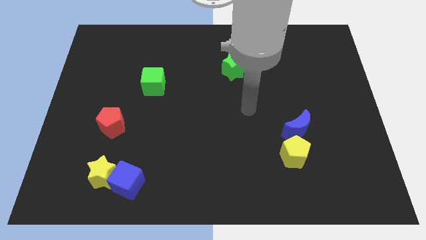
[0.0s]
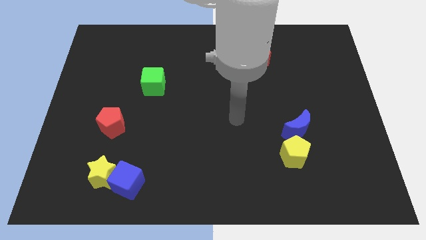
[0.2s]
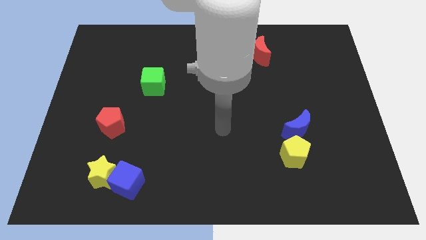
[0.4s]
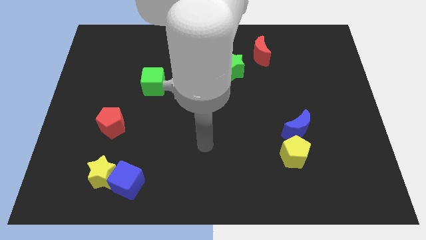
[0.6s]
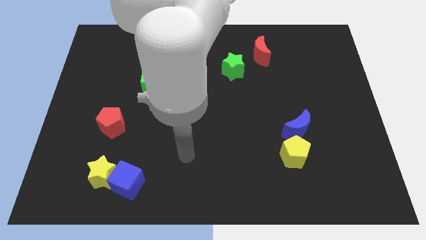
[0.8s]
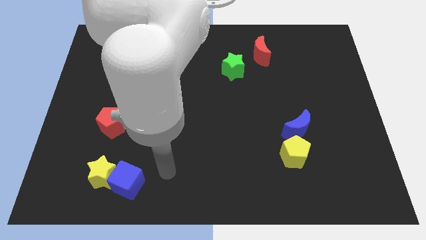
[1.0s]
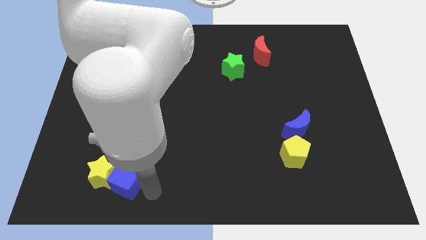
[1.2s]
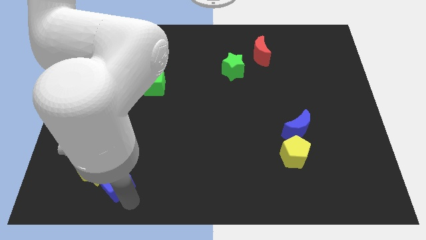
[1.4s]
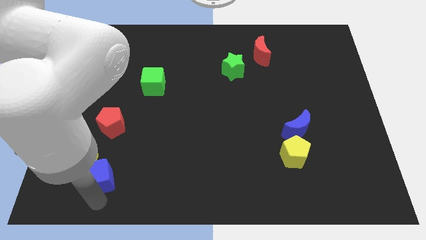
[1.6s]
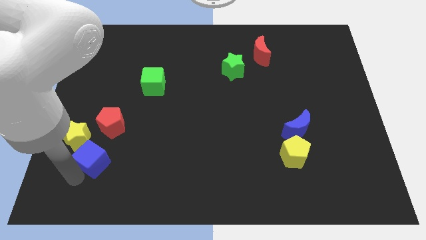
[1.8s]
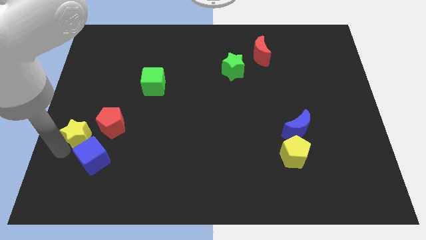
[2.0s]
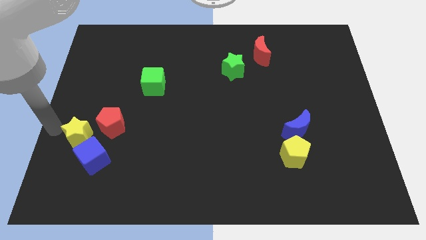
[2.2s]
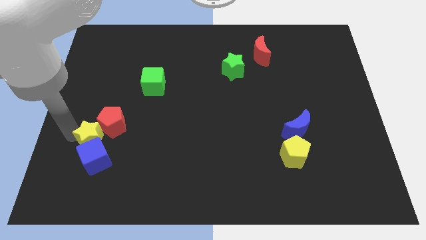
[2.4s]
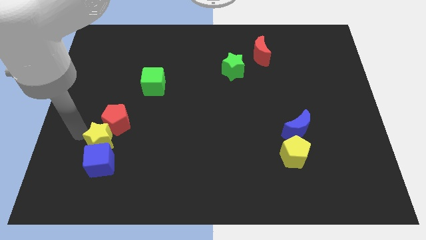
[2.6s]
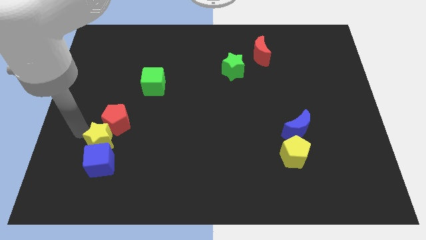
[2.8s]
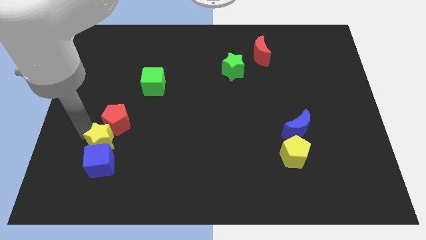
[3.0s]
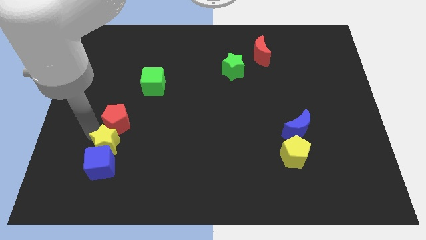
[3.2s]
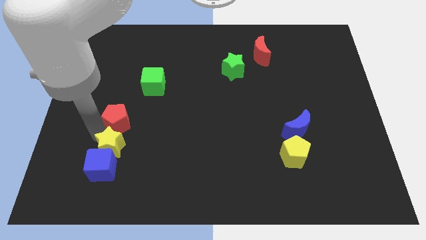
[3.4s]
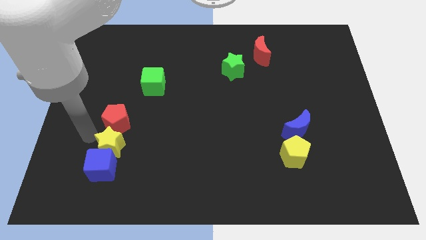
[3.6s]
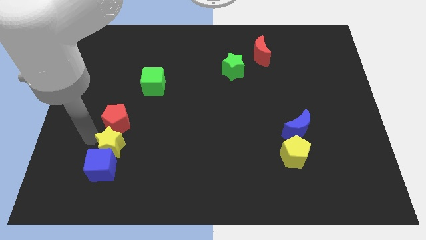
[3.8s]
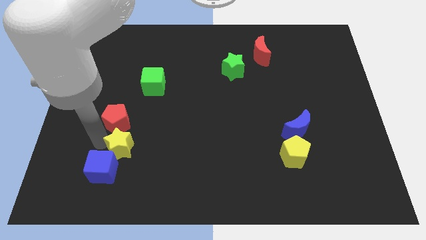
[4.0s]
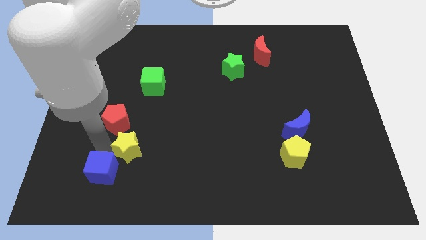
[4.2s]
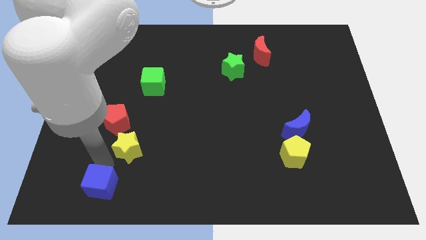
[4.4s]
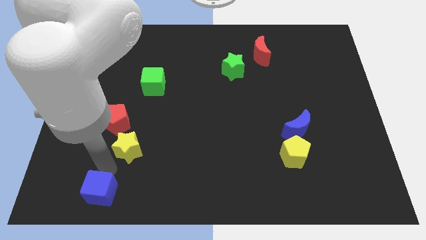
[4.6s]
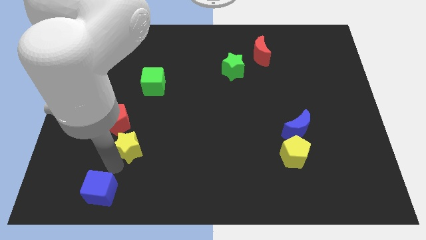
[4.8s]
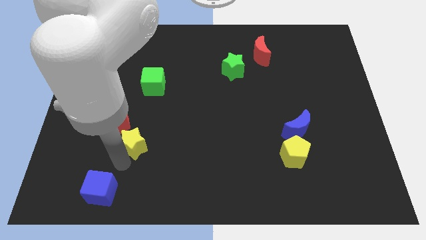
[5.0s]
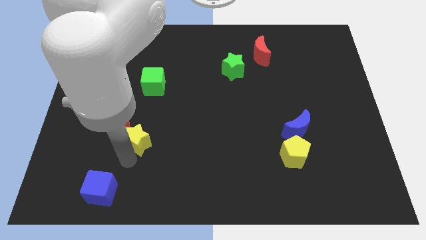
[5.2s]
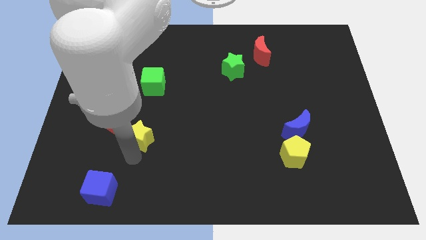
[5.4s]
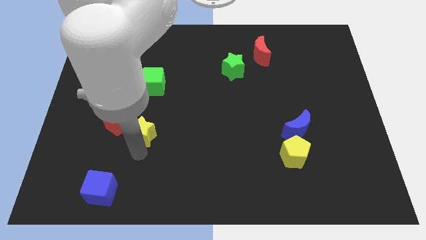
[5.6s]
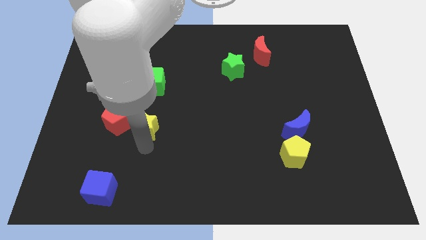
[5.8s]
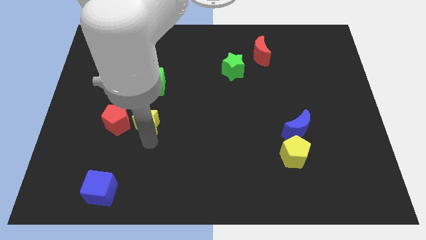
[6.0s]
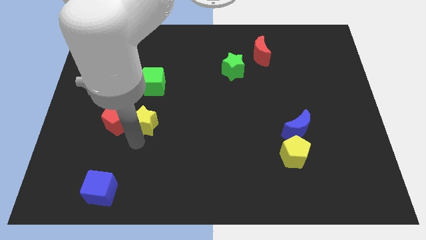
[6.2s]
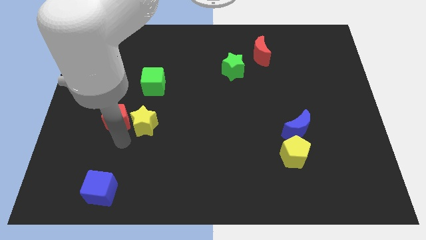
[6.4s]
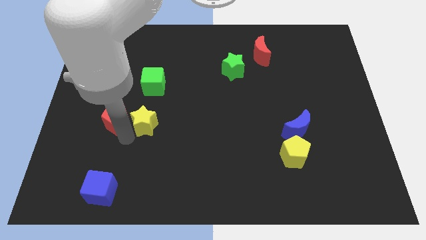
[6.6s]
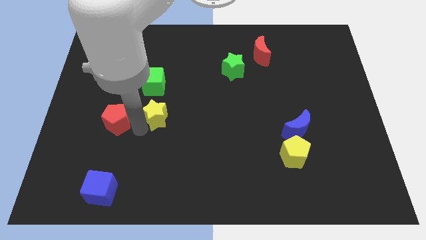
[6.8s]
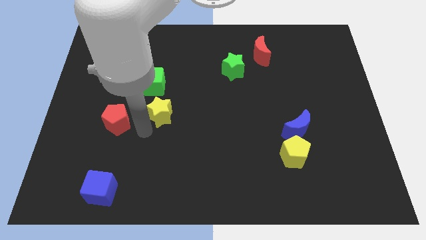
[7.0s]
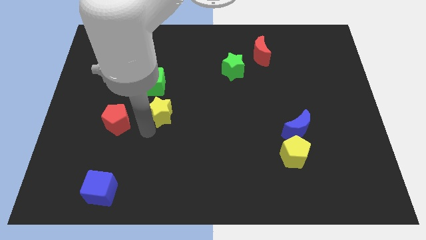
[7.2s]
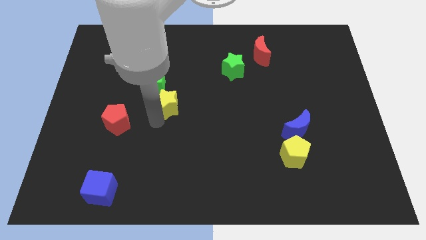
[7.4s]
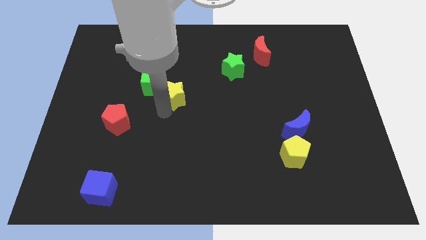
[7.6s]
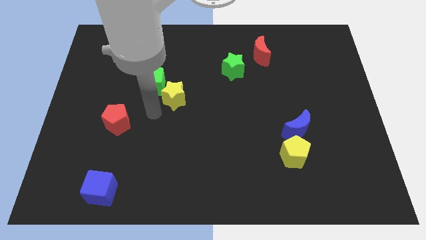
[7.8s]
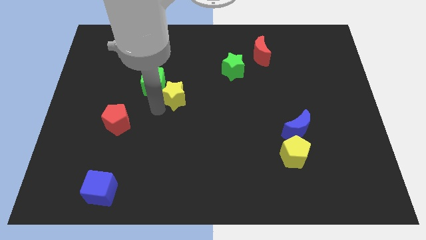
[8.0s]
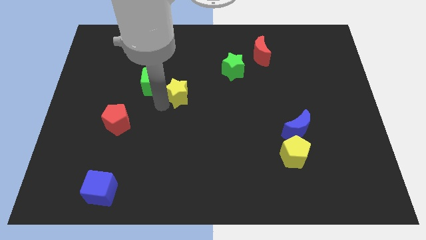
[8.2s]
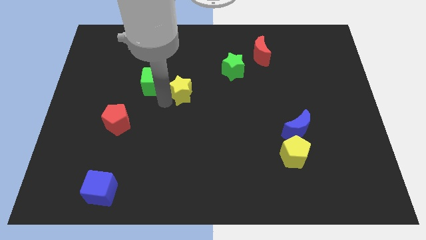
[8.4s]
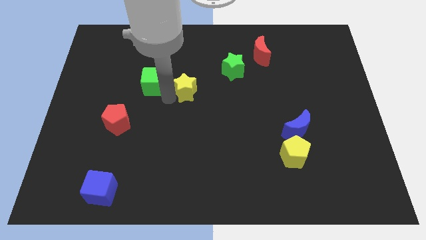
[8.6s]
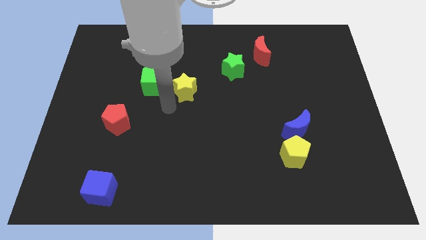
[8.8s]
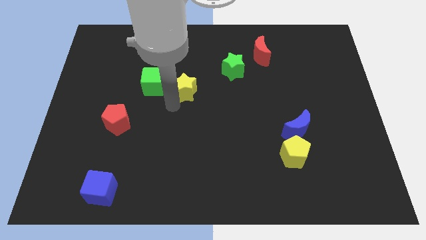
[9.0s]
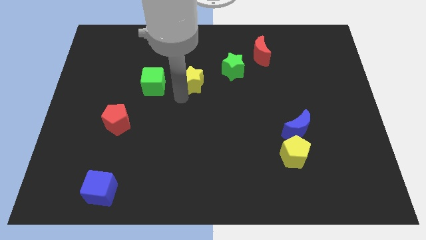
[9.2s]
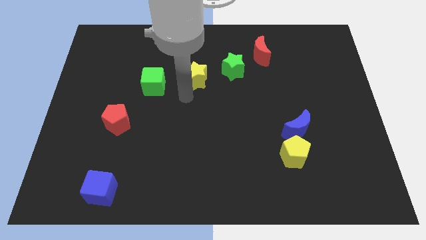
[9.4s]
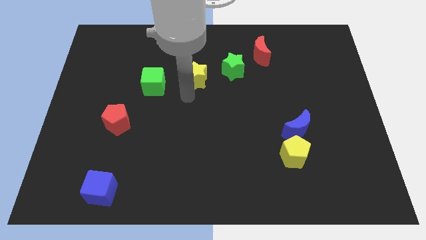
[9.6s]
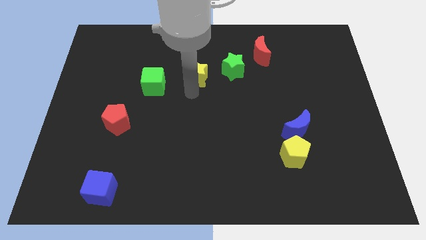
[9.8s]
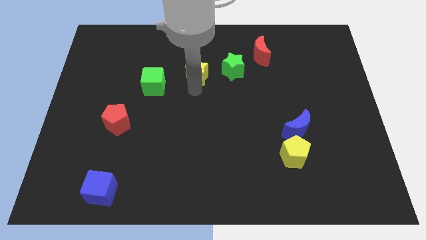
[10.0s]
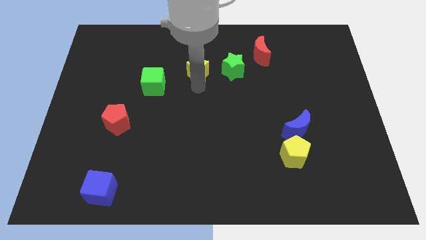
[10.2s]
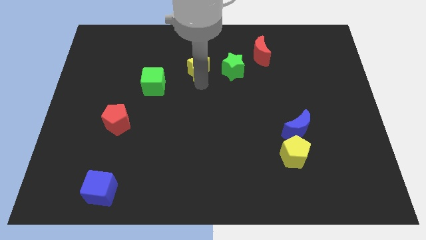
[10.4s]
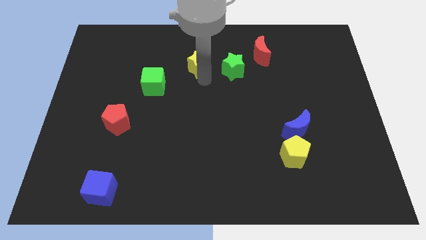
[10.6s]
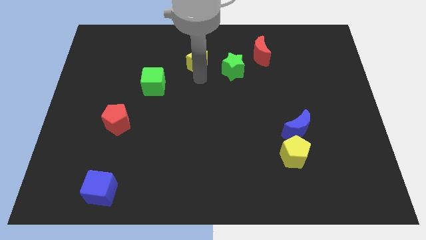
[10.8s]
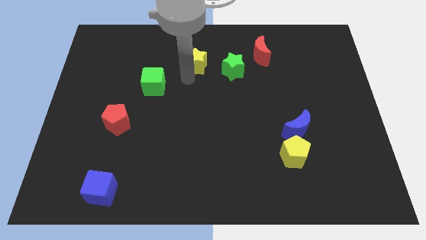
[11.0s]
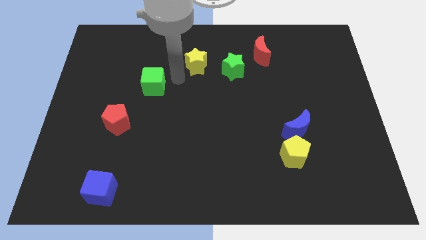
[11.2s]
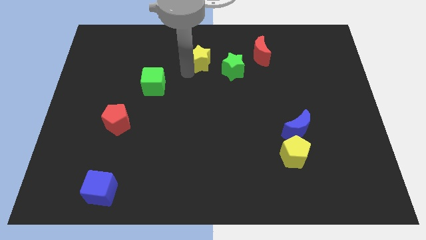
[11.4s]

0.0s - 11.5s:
move the yellow star diagonally up and to the left of the green star

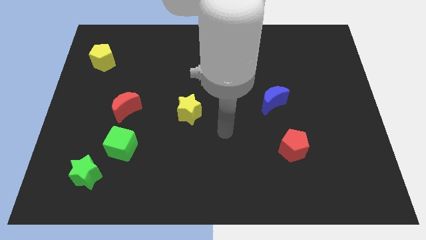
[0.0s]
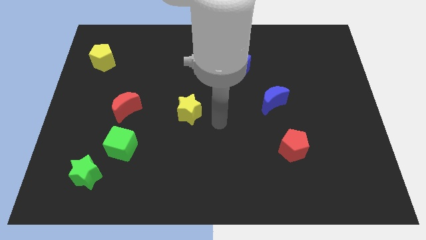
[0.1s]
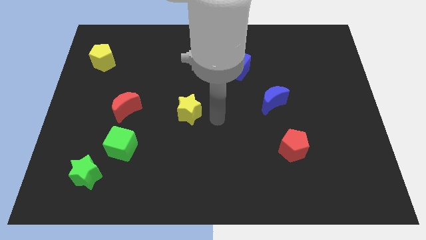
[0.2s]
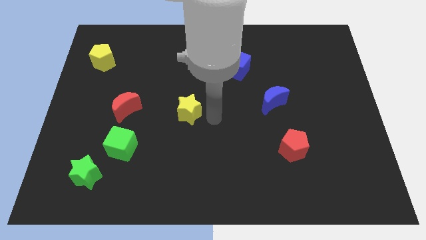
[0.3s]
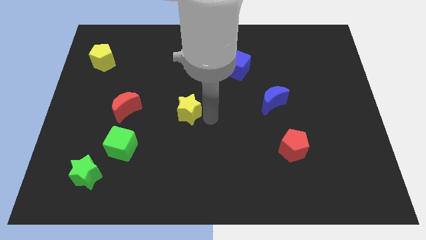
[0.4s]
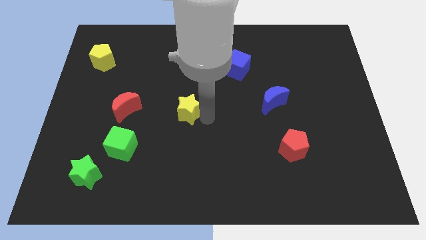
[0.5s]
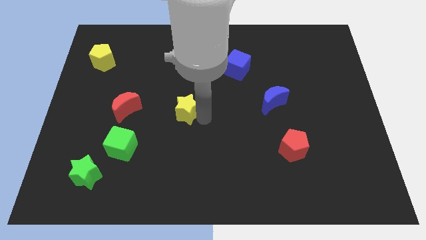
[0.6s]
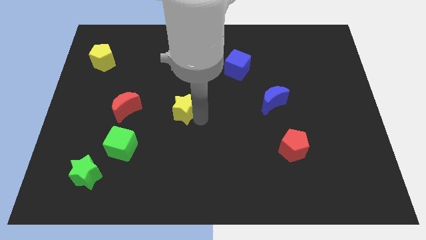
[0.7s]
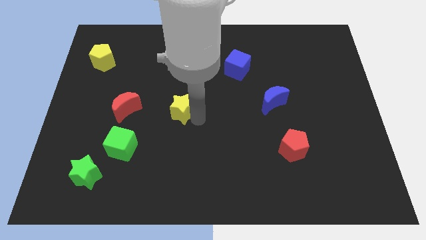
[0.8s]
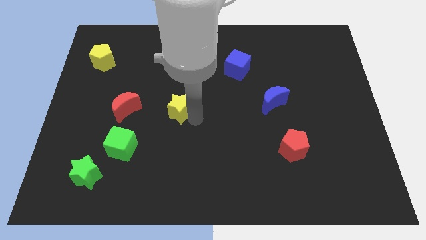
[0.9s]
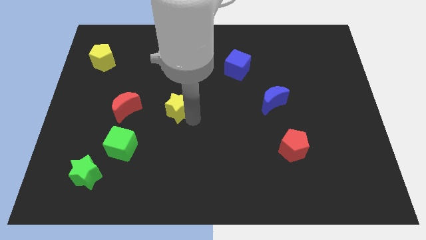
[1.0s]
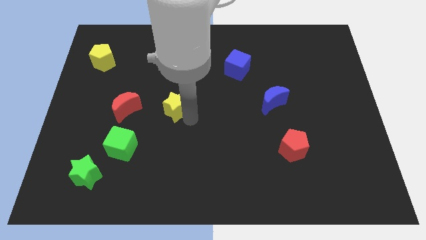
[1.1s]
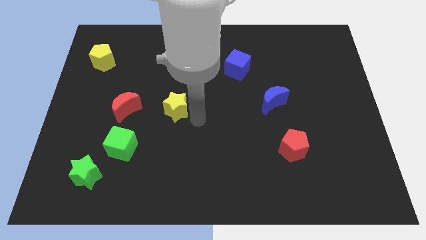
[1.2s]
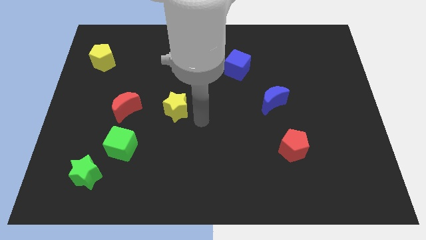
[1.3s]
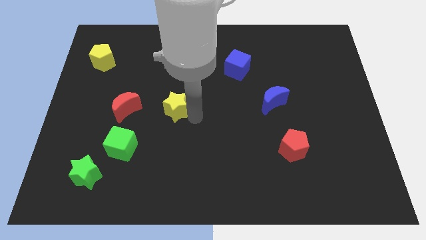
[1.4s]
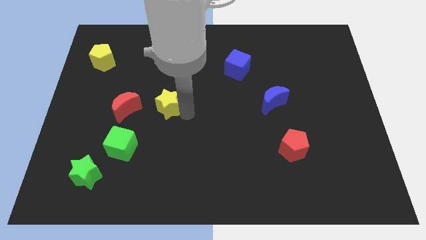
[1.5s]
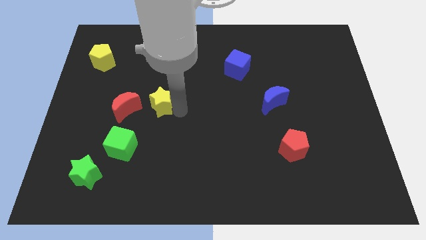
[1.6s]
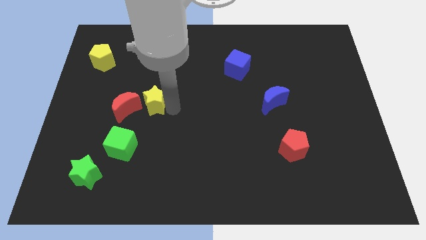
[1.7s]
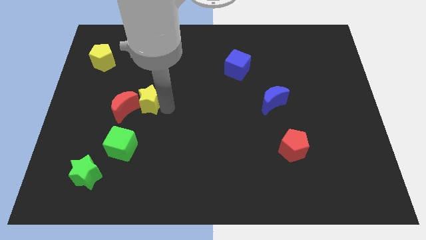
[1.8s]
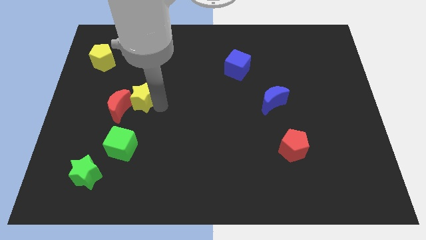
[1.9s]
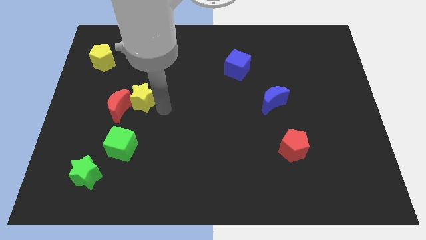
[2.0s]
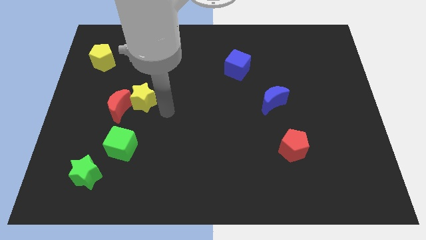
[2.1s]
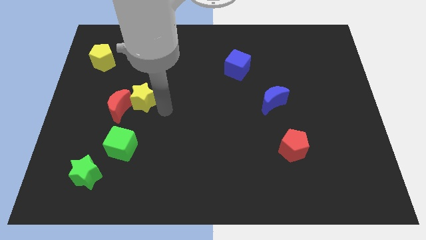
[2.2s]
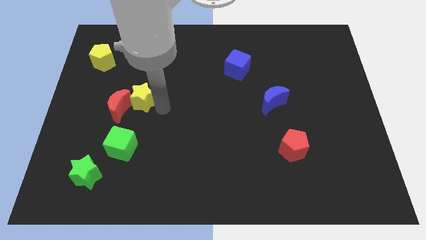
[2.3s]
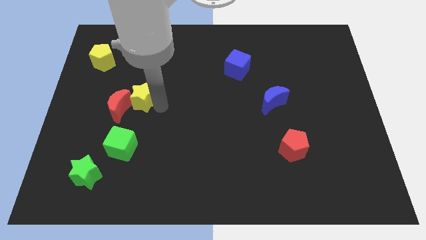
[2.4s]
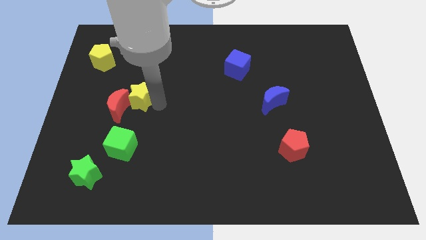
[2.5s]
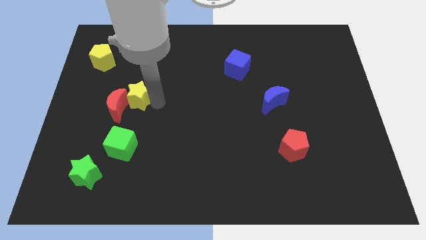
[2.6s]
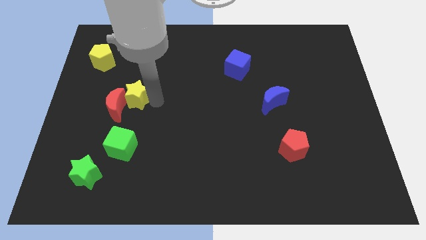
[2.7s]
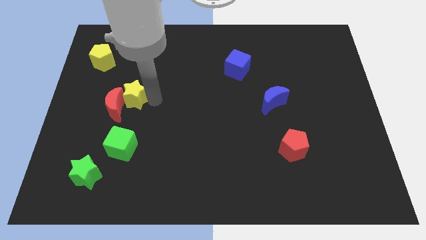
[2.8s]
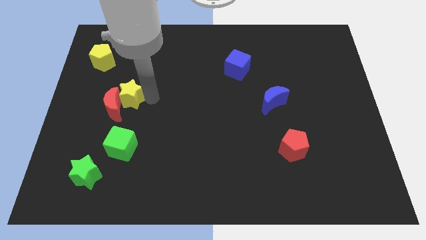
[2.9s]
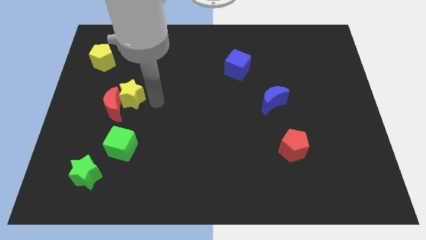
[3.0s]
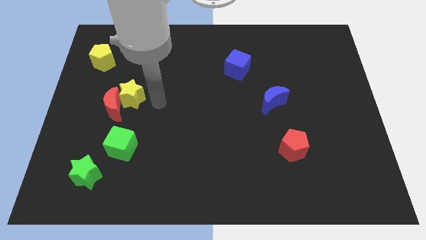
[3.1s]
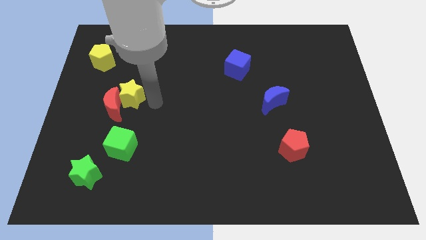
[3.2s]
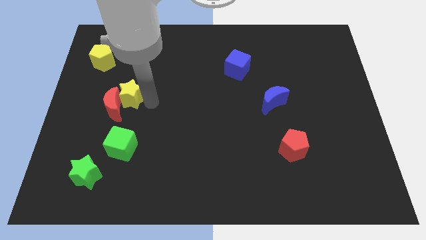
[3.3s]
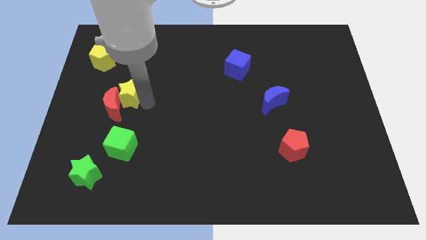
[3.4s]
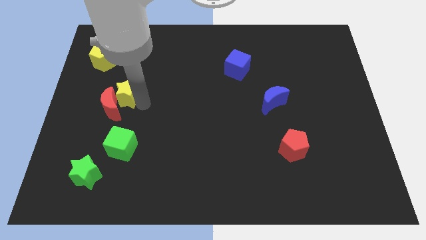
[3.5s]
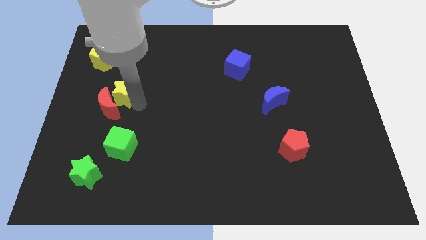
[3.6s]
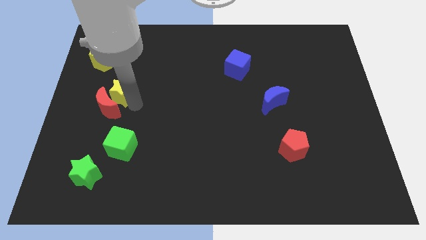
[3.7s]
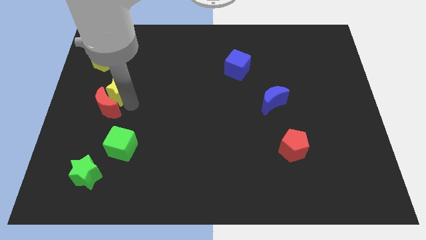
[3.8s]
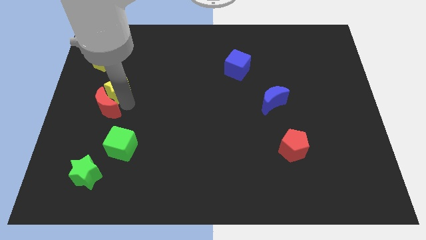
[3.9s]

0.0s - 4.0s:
push the yellow star to the top left side of the red moon
